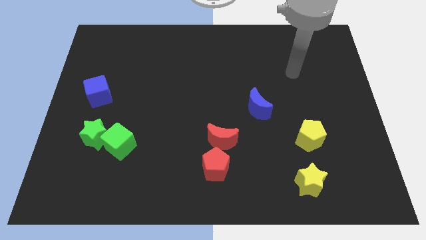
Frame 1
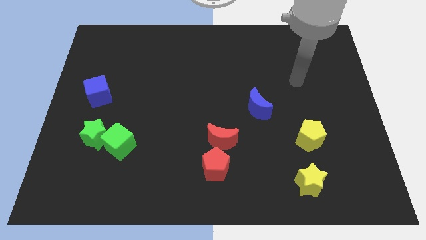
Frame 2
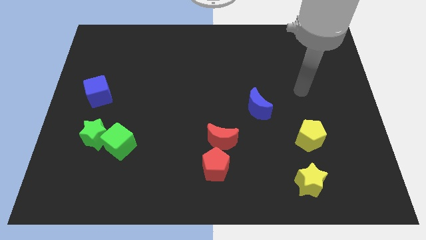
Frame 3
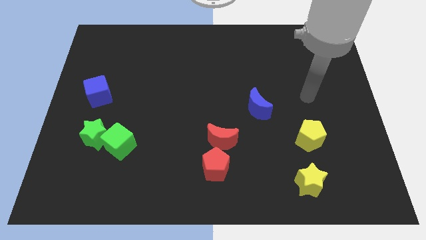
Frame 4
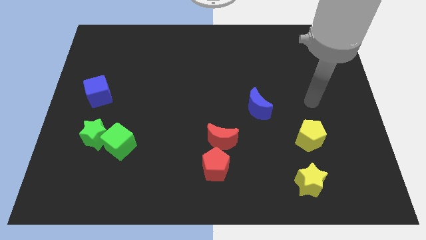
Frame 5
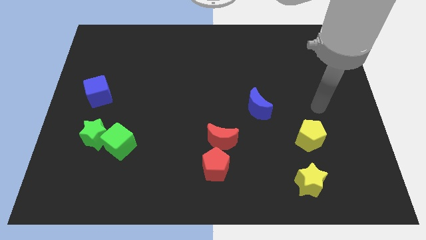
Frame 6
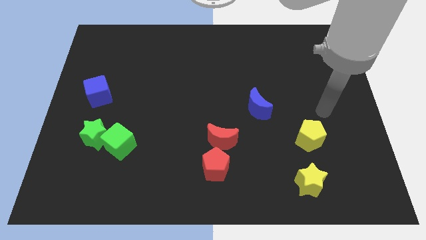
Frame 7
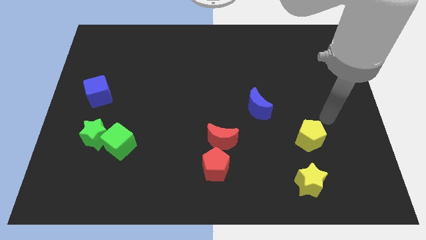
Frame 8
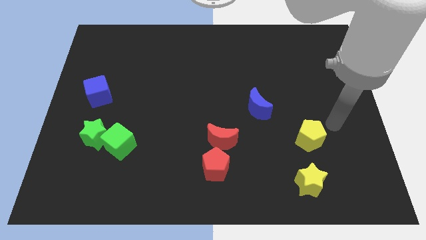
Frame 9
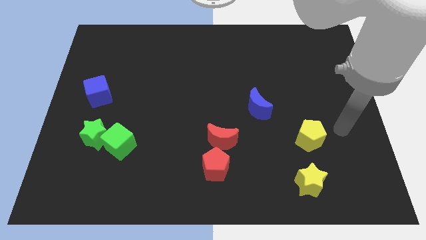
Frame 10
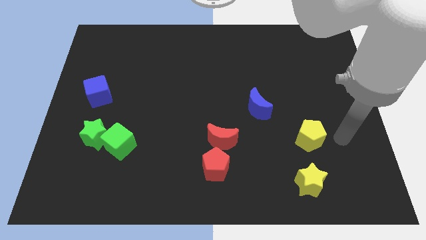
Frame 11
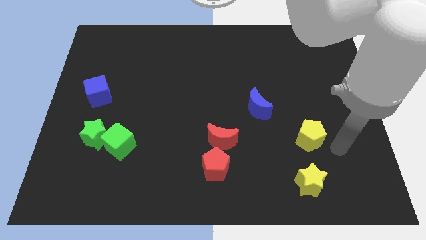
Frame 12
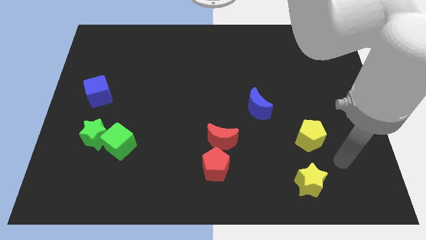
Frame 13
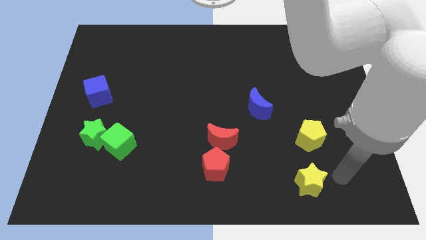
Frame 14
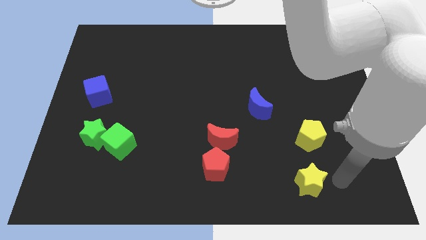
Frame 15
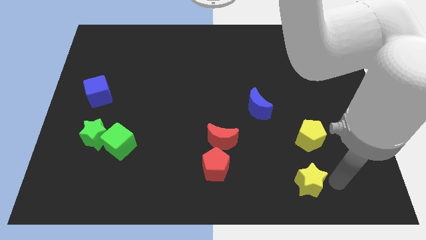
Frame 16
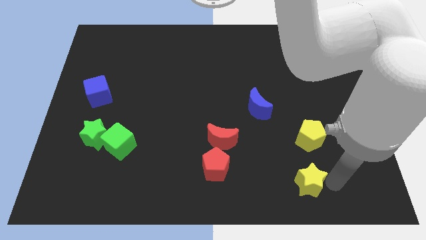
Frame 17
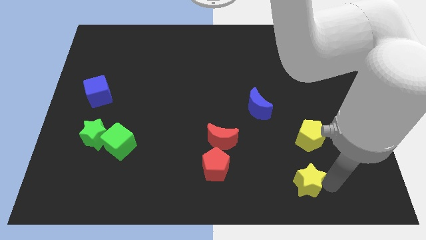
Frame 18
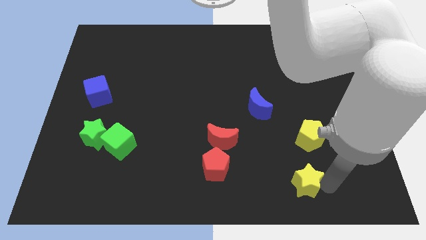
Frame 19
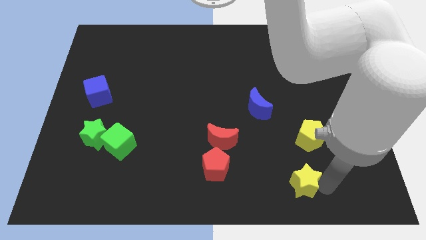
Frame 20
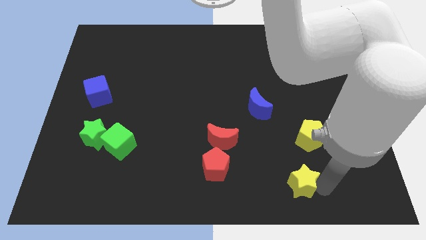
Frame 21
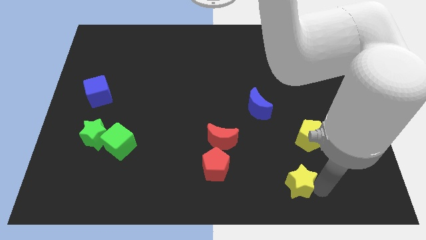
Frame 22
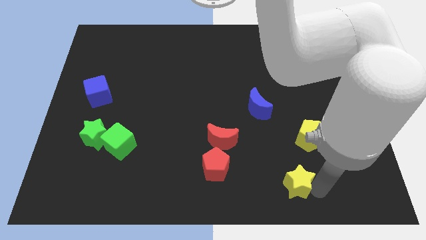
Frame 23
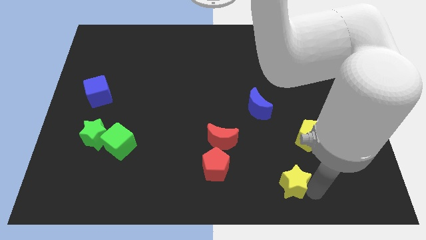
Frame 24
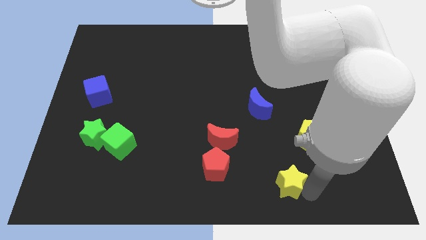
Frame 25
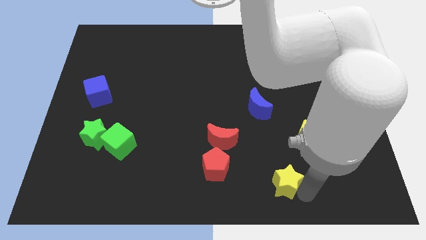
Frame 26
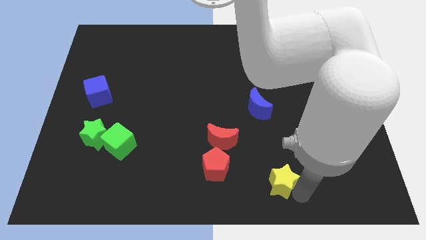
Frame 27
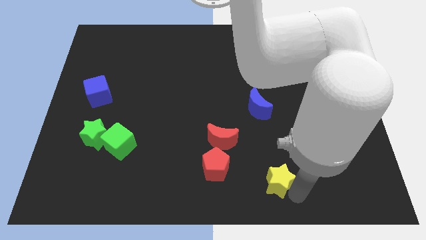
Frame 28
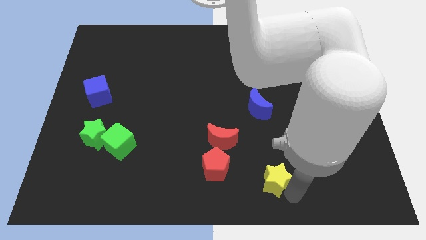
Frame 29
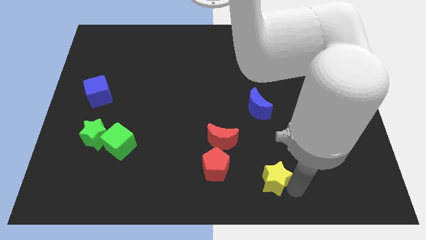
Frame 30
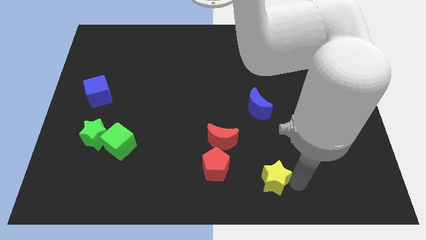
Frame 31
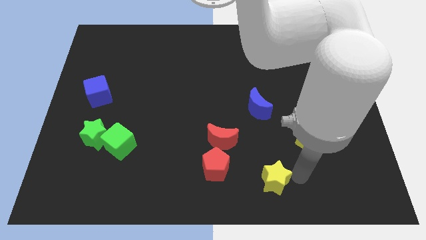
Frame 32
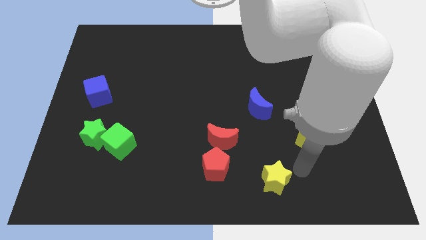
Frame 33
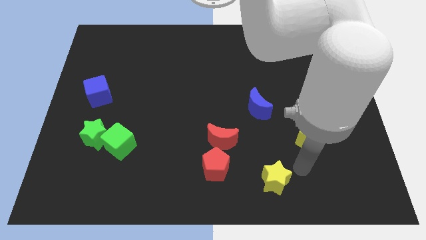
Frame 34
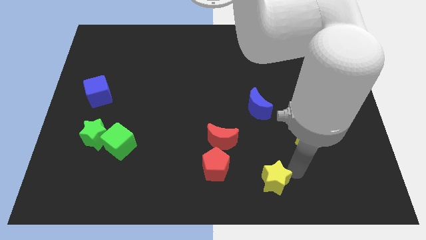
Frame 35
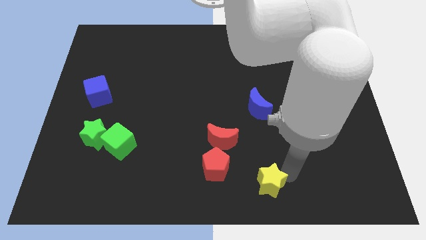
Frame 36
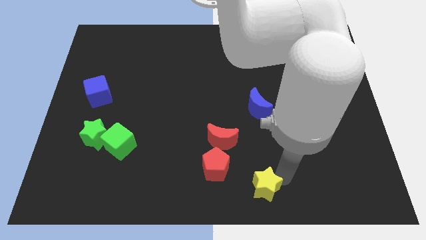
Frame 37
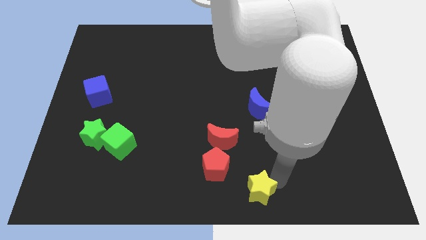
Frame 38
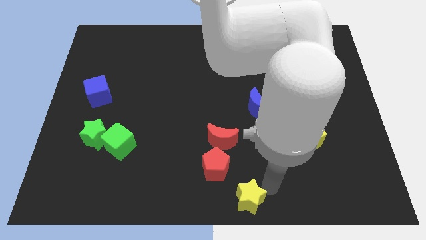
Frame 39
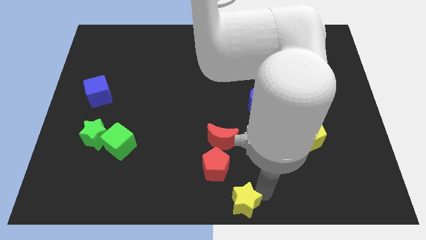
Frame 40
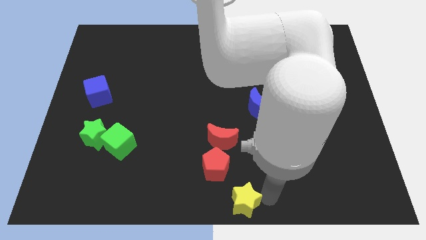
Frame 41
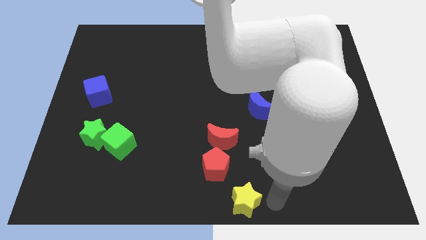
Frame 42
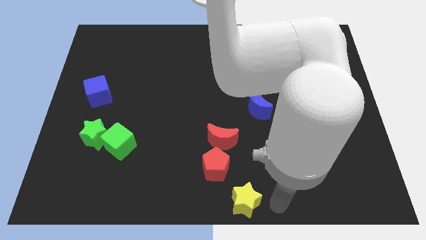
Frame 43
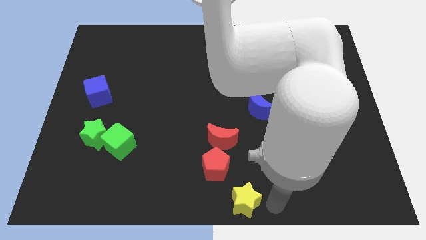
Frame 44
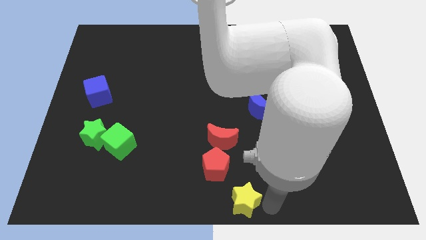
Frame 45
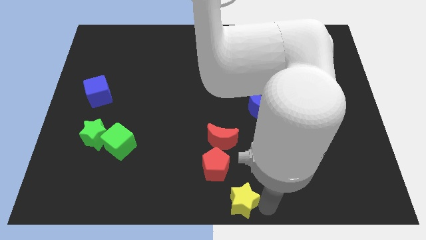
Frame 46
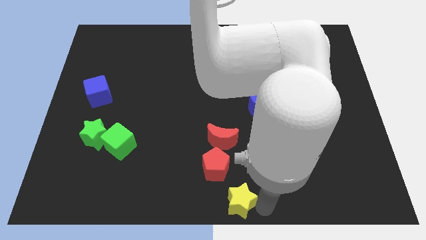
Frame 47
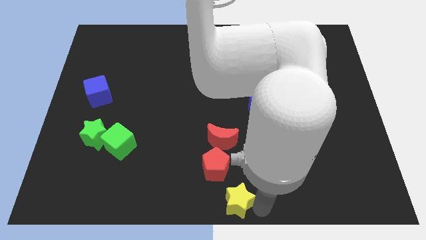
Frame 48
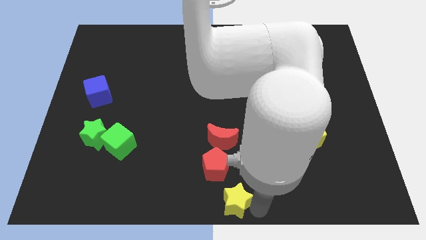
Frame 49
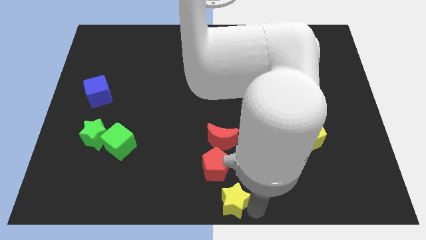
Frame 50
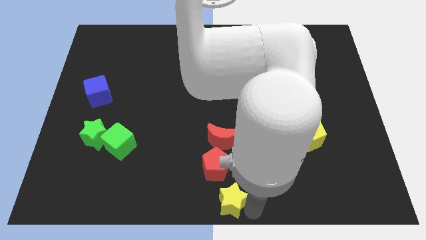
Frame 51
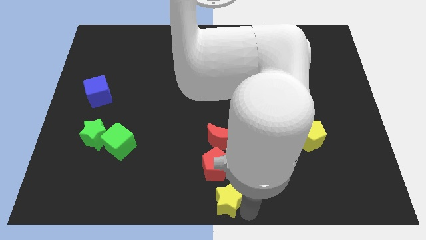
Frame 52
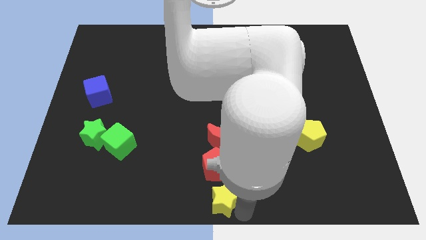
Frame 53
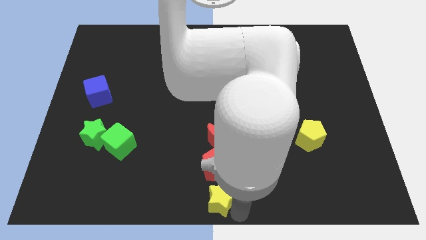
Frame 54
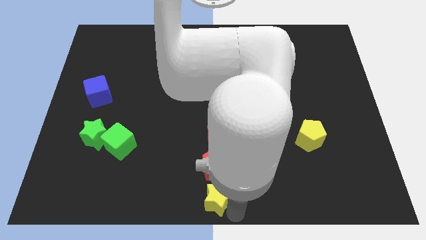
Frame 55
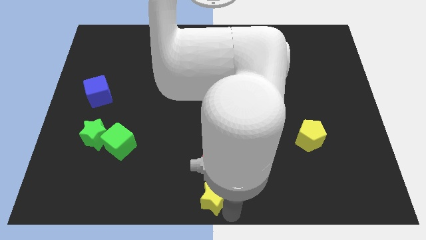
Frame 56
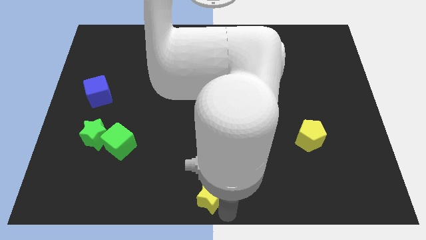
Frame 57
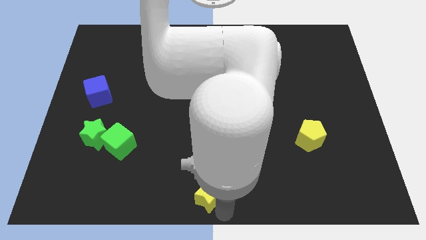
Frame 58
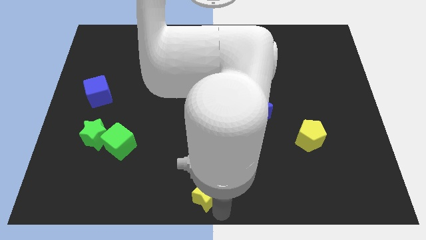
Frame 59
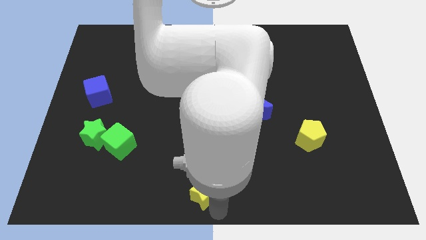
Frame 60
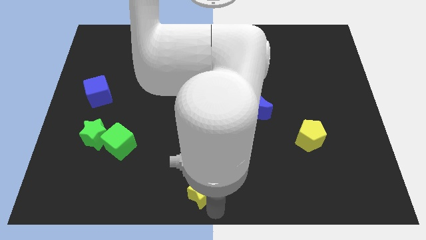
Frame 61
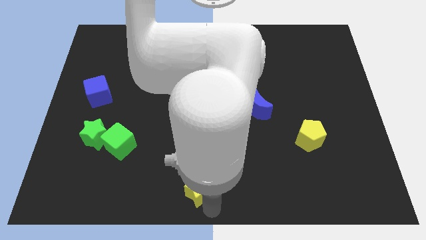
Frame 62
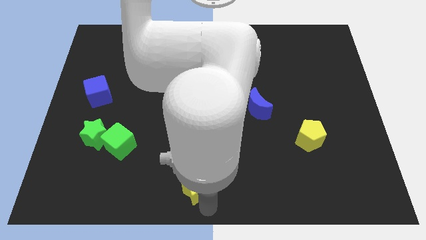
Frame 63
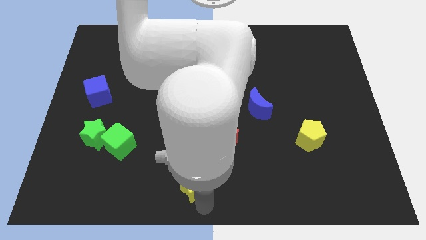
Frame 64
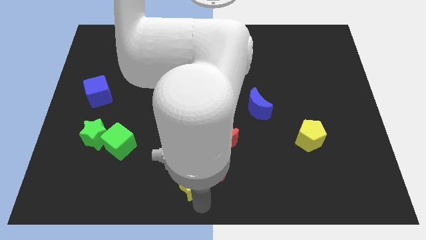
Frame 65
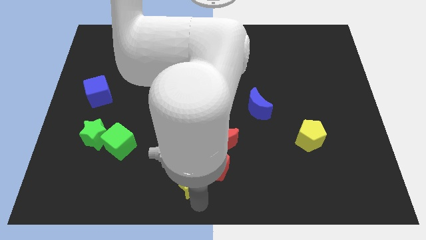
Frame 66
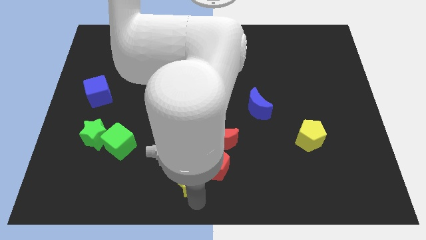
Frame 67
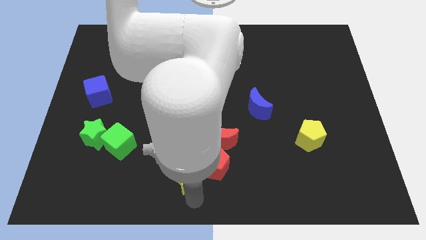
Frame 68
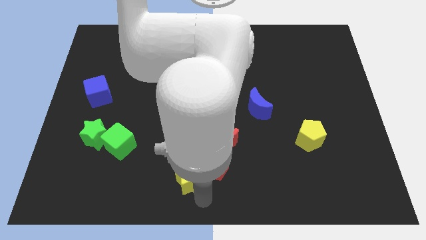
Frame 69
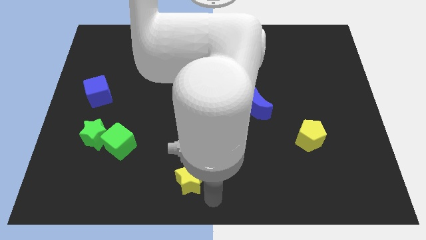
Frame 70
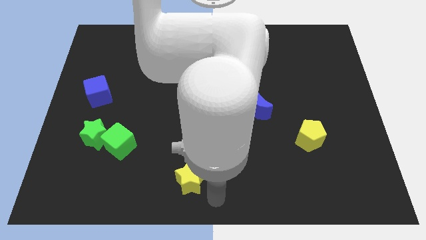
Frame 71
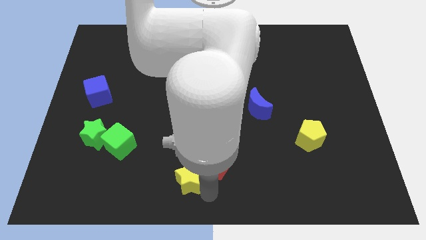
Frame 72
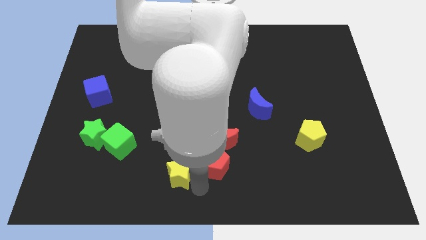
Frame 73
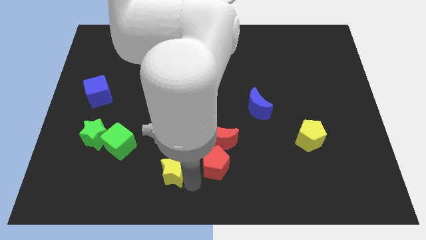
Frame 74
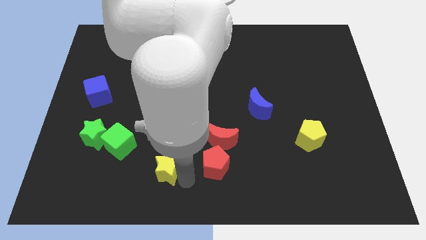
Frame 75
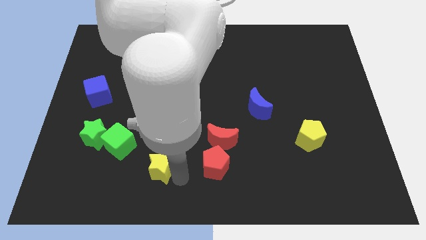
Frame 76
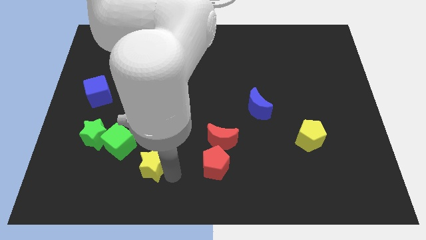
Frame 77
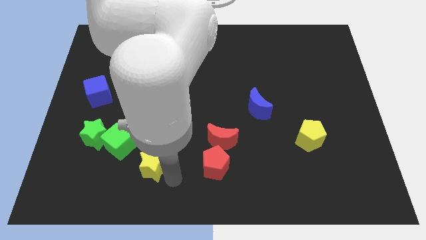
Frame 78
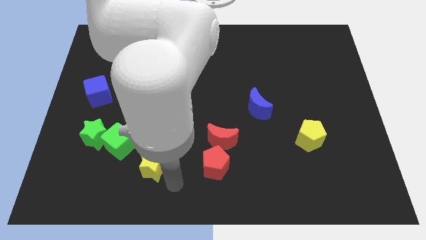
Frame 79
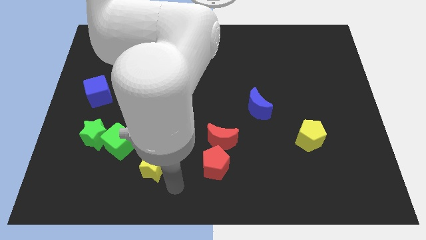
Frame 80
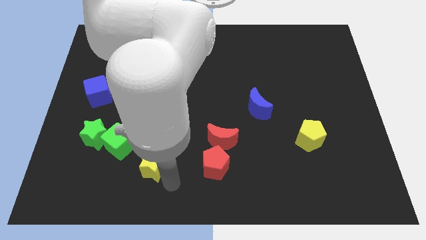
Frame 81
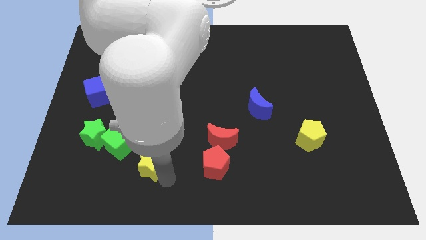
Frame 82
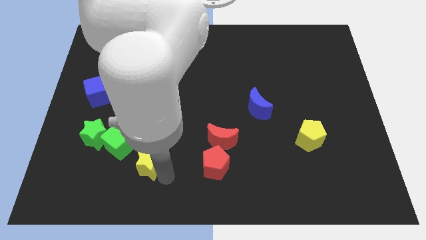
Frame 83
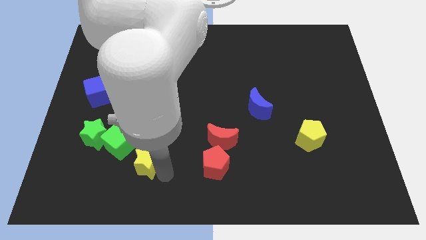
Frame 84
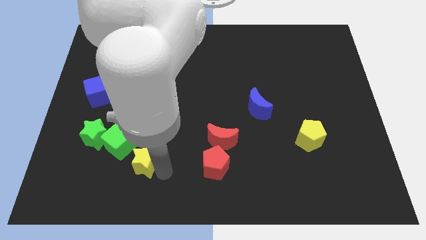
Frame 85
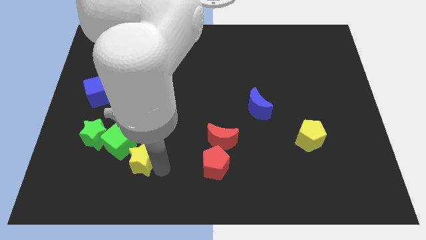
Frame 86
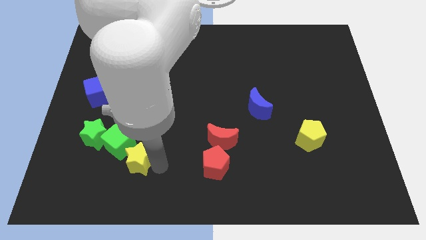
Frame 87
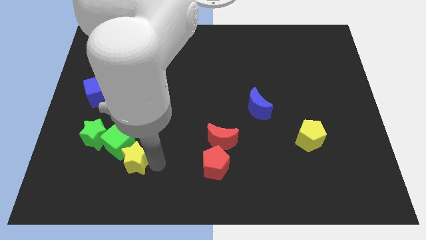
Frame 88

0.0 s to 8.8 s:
put the yellow star close to the green cube
